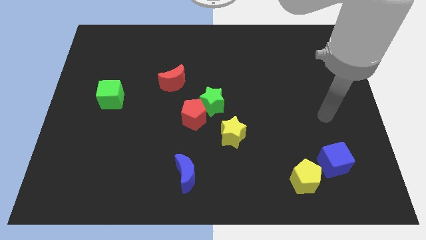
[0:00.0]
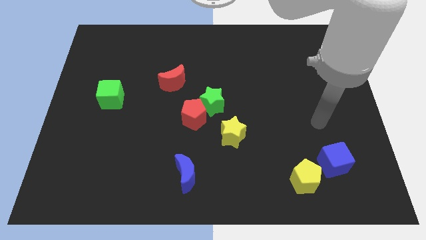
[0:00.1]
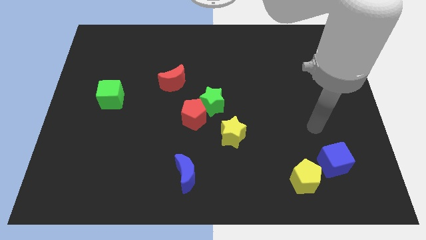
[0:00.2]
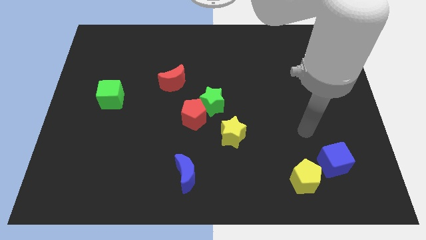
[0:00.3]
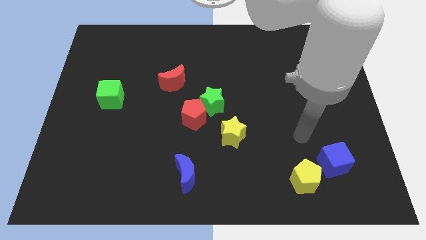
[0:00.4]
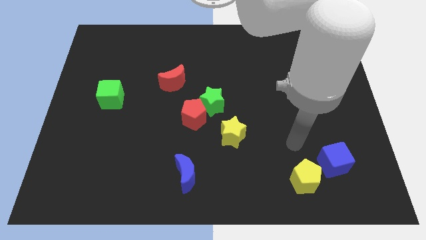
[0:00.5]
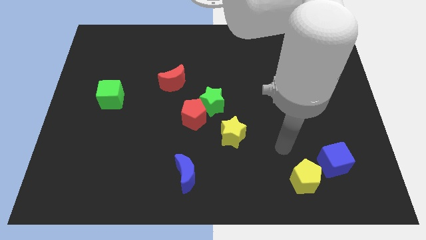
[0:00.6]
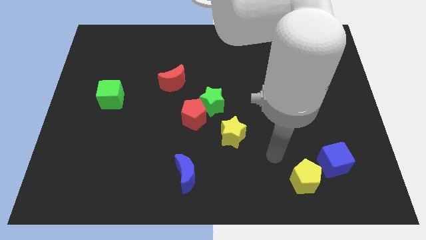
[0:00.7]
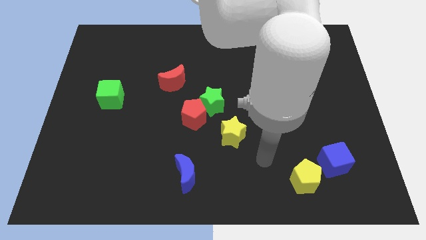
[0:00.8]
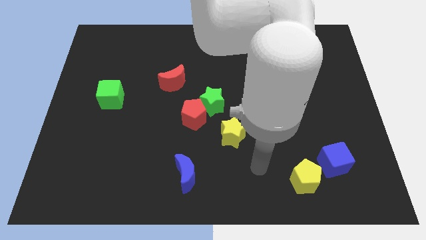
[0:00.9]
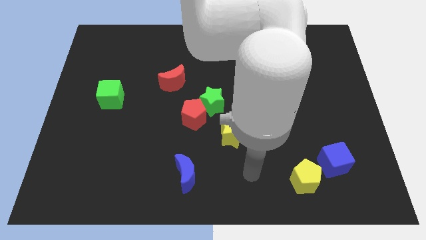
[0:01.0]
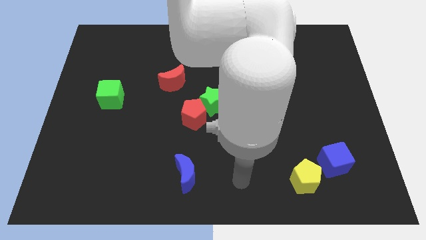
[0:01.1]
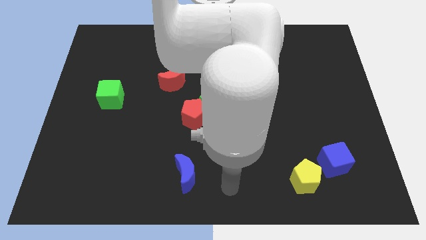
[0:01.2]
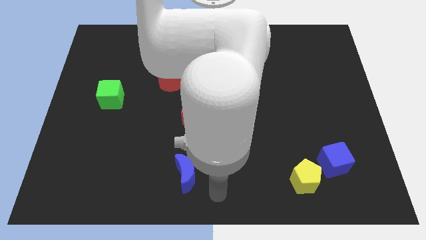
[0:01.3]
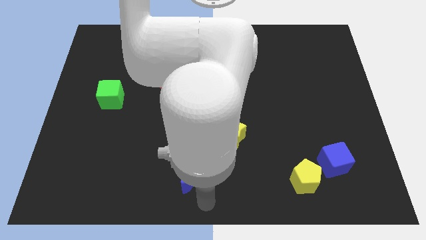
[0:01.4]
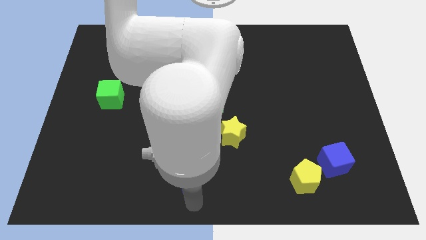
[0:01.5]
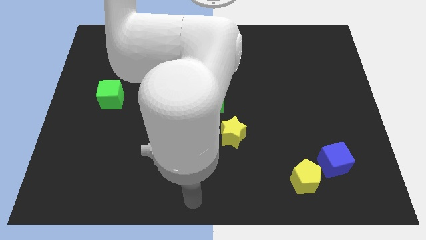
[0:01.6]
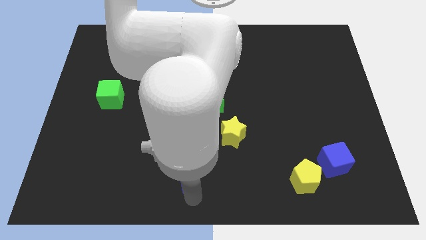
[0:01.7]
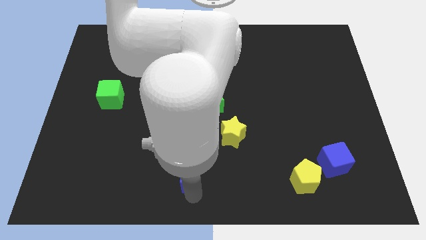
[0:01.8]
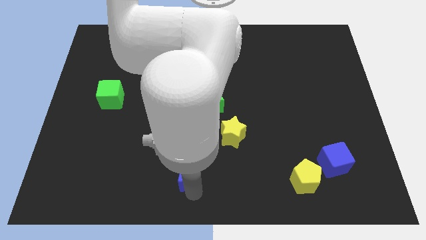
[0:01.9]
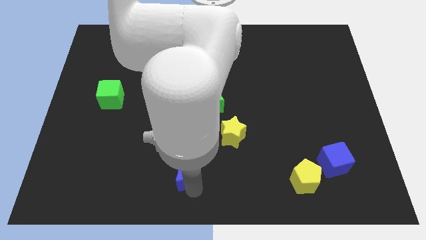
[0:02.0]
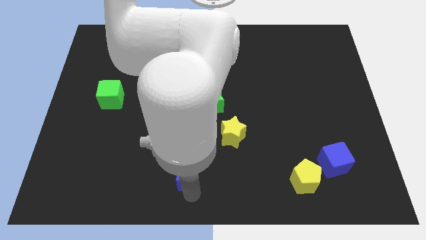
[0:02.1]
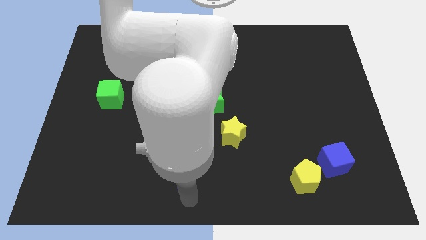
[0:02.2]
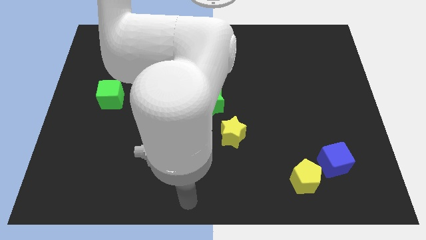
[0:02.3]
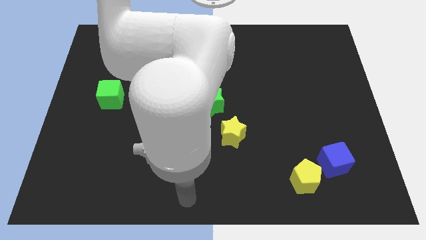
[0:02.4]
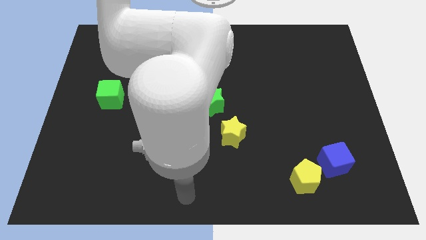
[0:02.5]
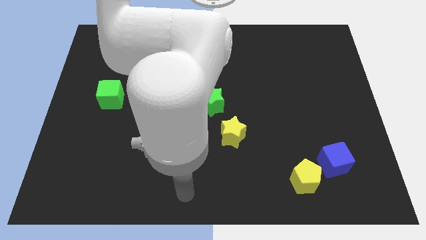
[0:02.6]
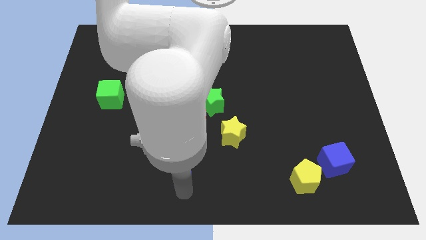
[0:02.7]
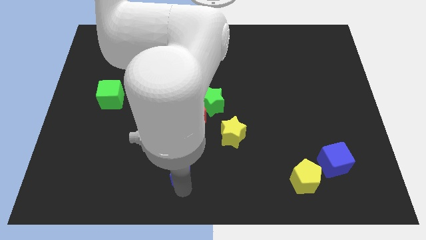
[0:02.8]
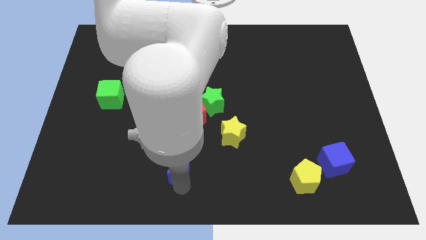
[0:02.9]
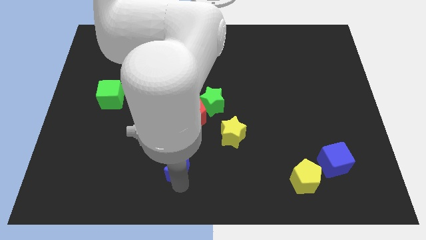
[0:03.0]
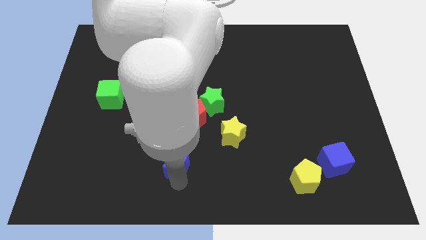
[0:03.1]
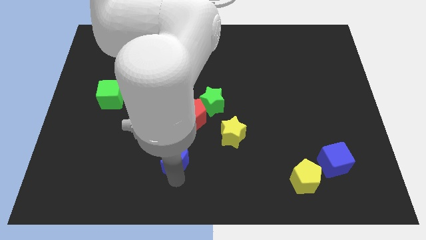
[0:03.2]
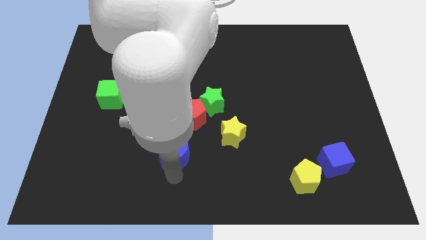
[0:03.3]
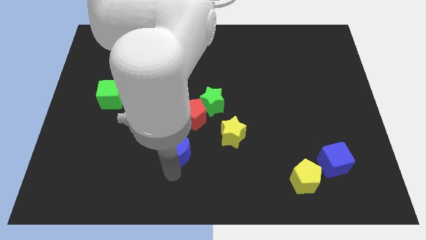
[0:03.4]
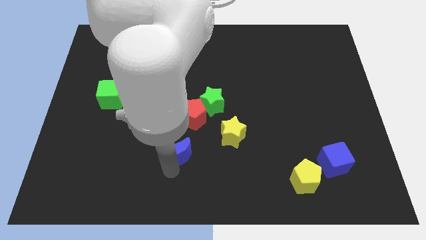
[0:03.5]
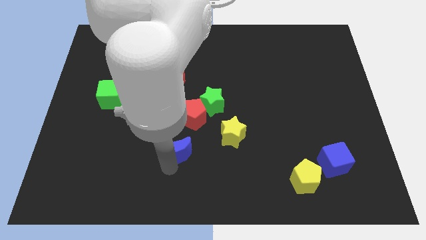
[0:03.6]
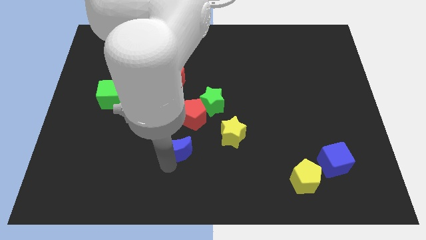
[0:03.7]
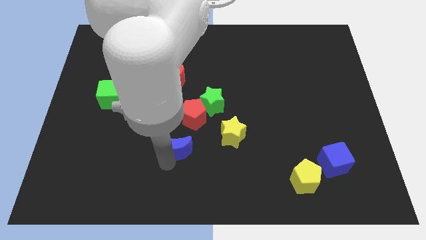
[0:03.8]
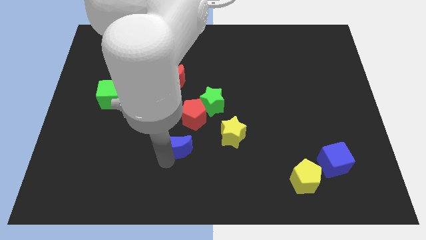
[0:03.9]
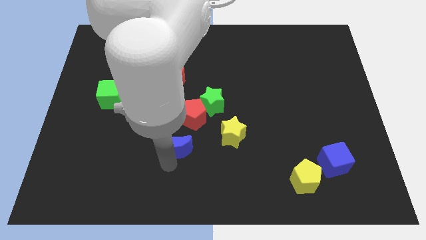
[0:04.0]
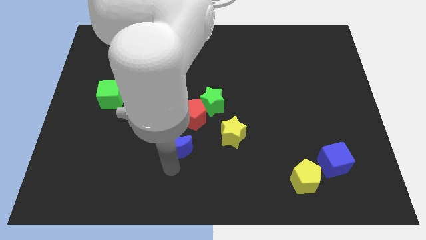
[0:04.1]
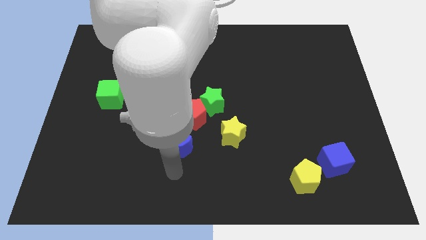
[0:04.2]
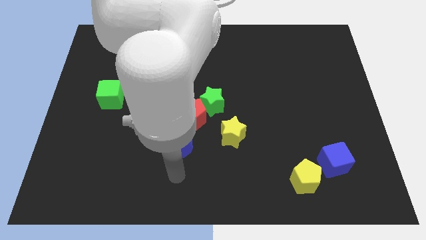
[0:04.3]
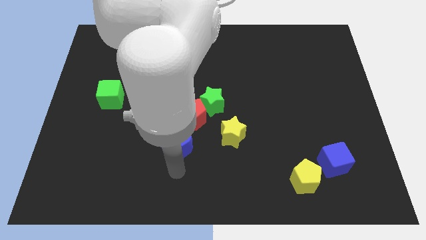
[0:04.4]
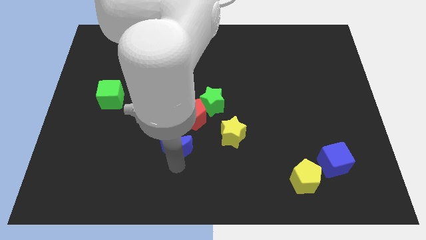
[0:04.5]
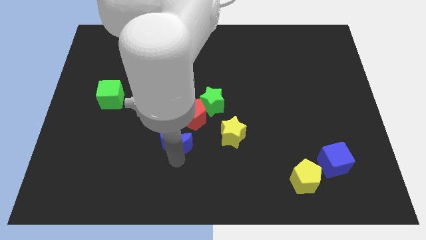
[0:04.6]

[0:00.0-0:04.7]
slide the blue moon slightly upwards

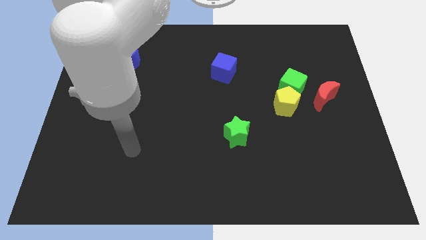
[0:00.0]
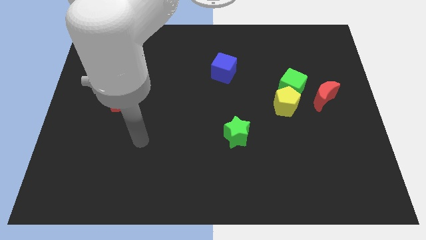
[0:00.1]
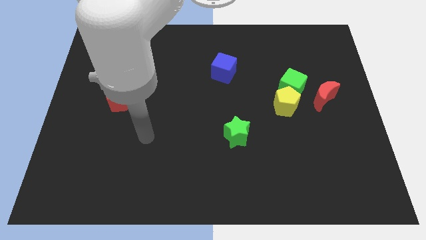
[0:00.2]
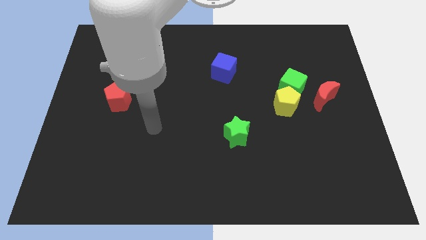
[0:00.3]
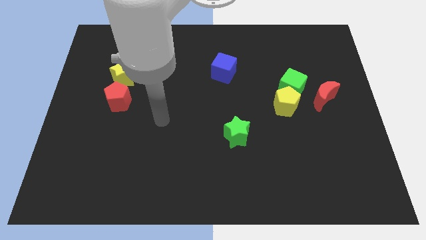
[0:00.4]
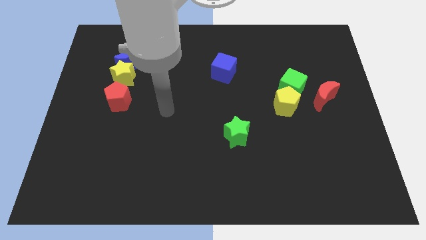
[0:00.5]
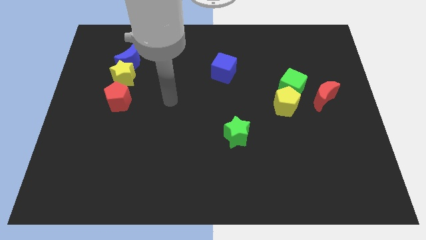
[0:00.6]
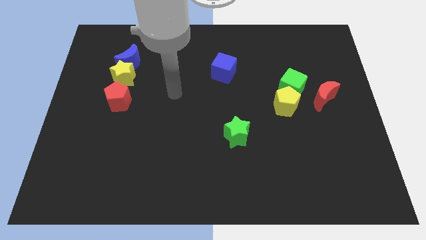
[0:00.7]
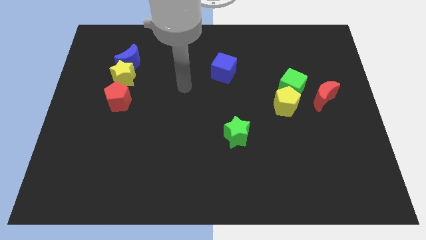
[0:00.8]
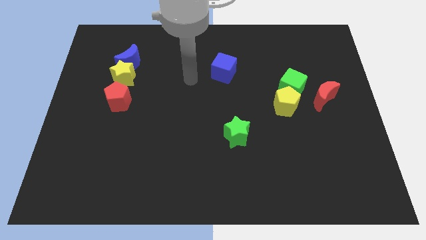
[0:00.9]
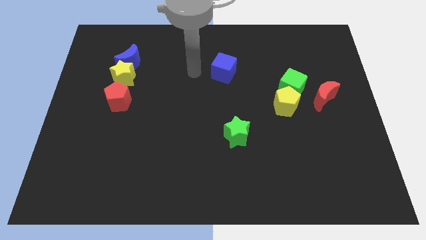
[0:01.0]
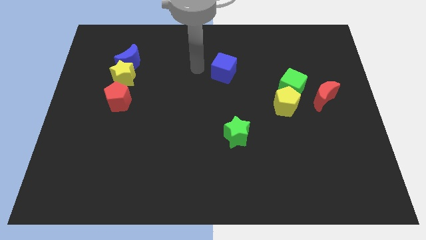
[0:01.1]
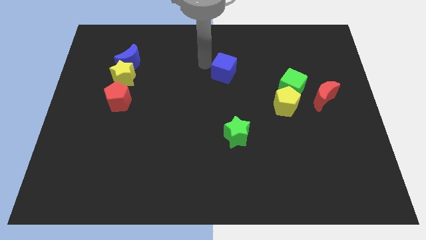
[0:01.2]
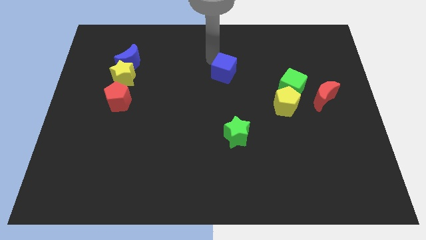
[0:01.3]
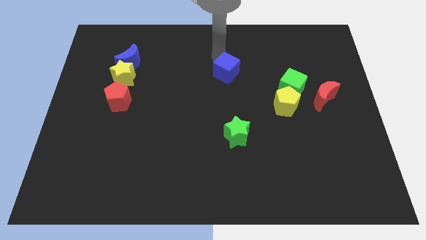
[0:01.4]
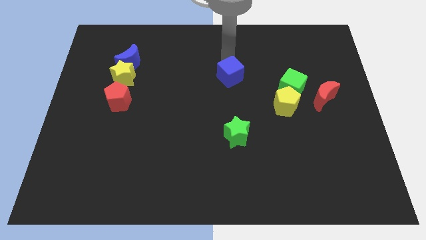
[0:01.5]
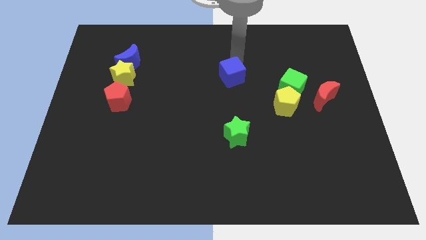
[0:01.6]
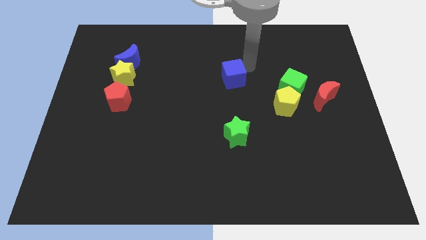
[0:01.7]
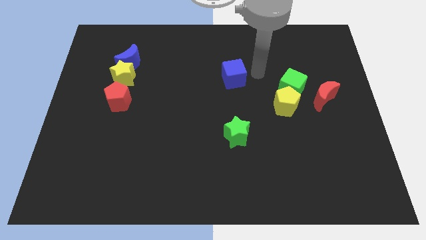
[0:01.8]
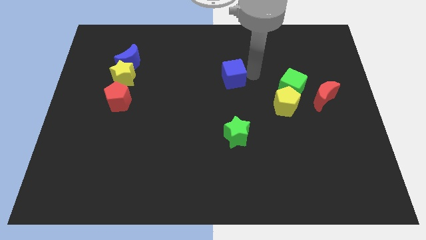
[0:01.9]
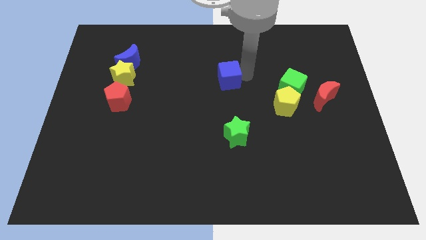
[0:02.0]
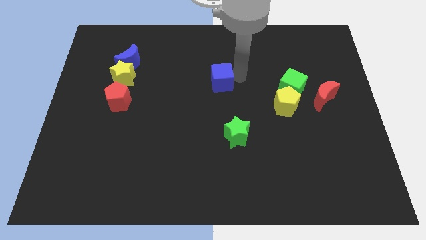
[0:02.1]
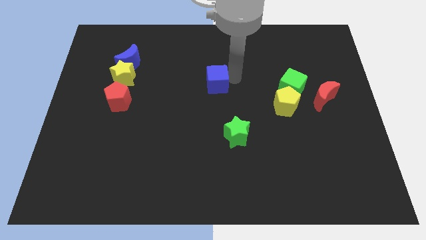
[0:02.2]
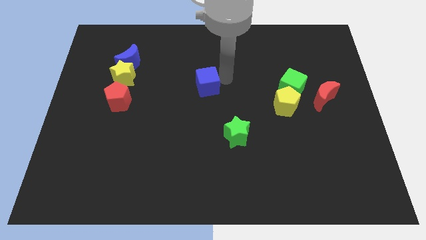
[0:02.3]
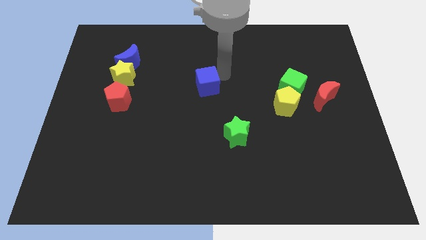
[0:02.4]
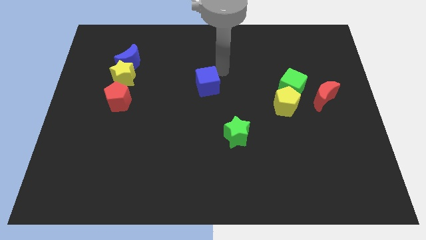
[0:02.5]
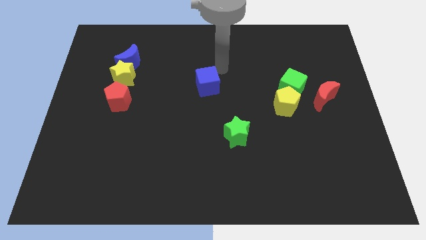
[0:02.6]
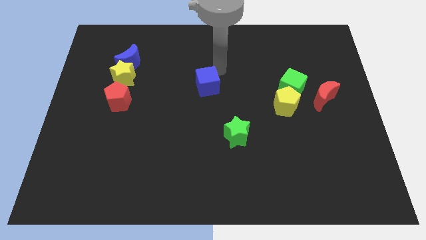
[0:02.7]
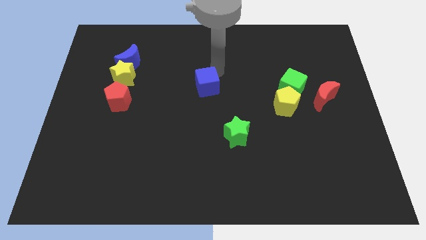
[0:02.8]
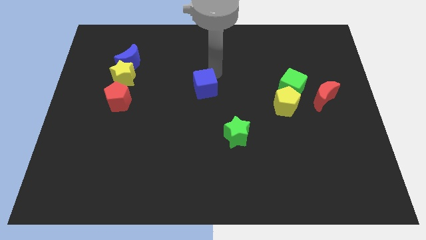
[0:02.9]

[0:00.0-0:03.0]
move the blue cube downwards and then to the left a little

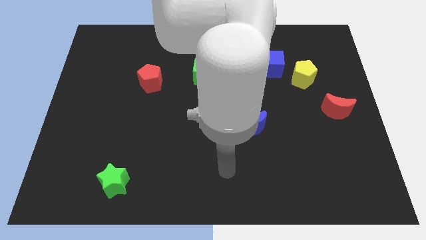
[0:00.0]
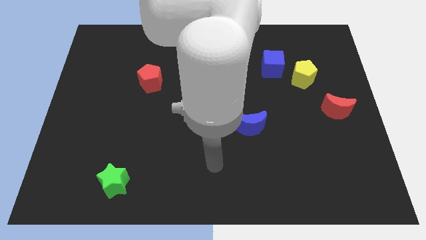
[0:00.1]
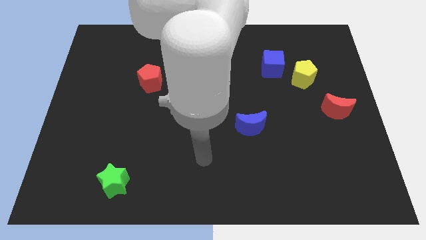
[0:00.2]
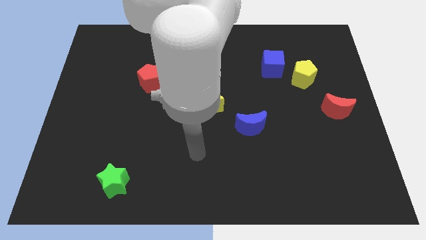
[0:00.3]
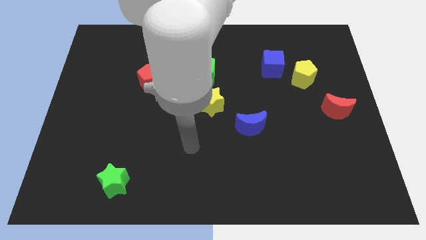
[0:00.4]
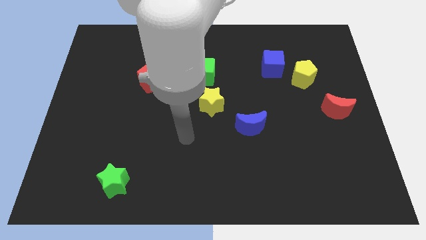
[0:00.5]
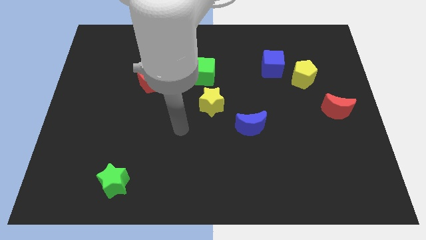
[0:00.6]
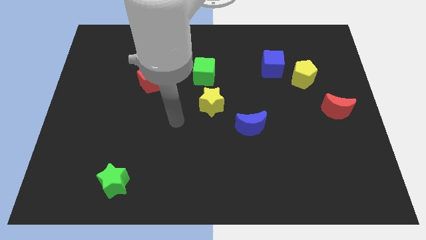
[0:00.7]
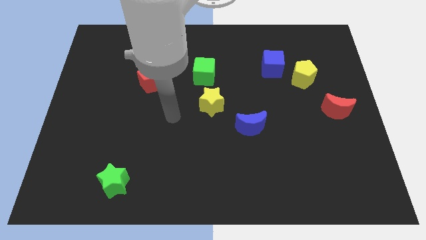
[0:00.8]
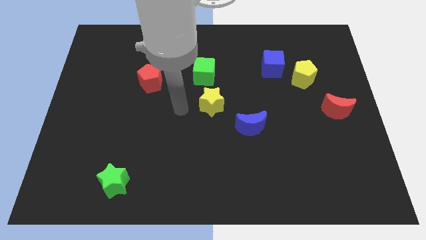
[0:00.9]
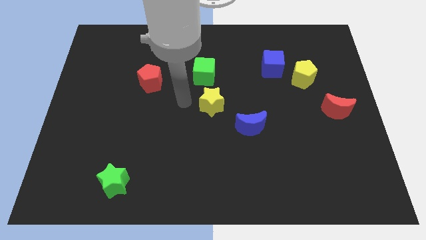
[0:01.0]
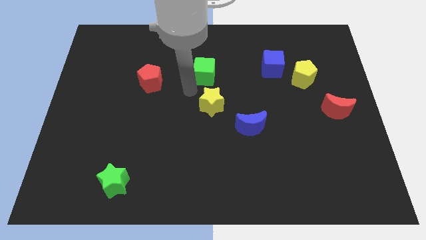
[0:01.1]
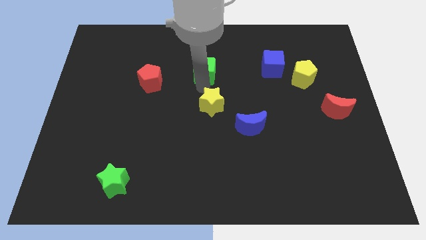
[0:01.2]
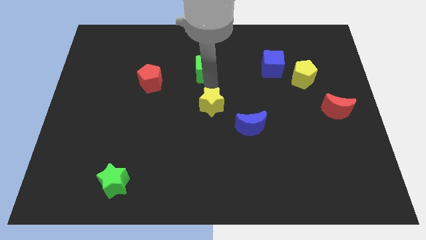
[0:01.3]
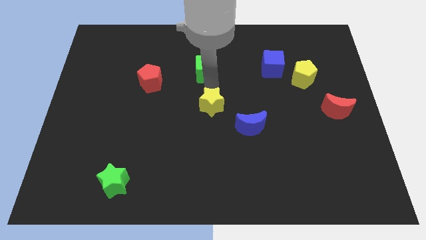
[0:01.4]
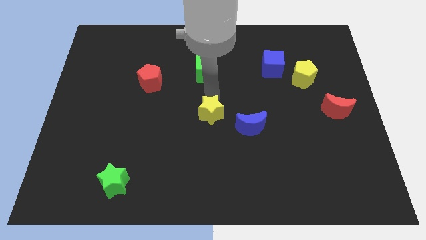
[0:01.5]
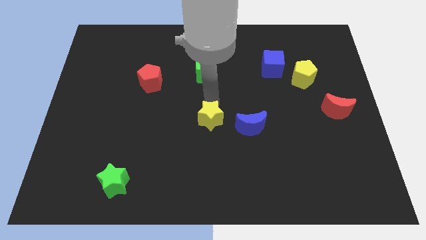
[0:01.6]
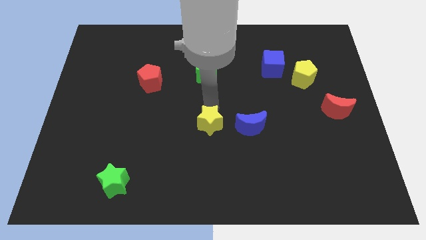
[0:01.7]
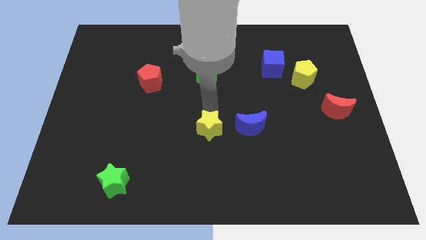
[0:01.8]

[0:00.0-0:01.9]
slide the yellow star a bit down
